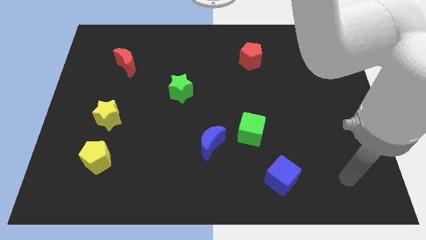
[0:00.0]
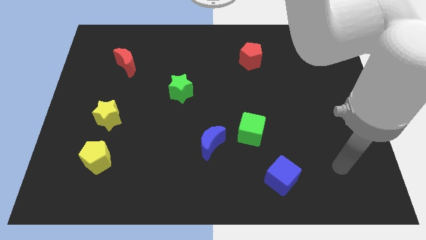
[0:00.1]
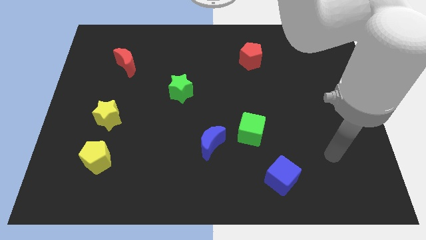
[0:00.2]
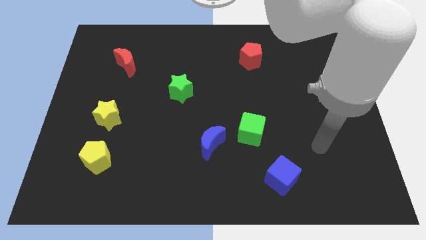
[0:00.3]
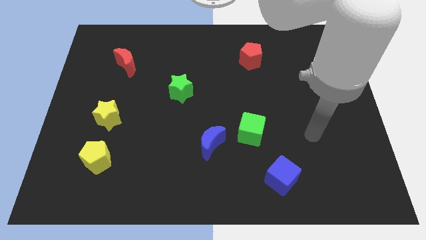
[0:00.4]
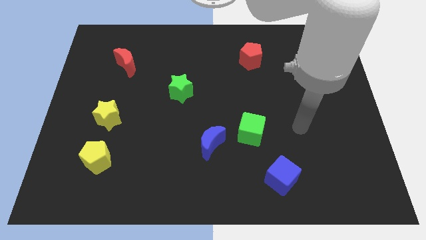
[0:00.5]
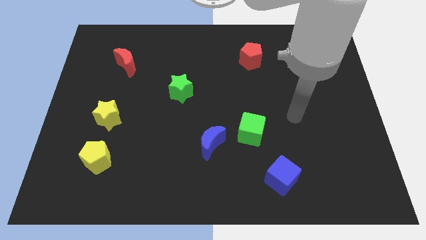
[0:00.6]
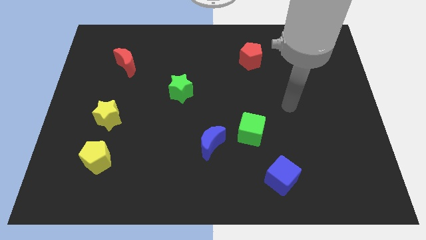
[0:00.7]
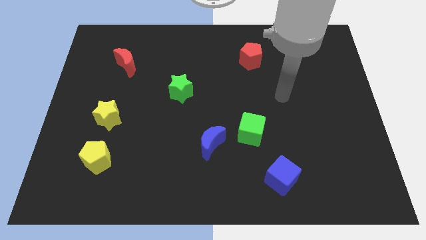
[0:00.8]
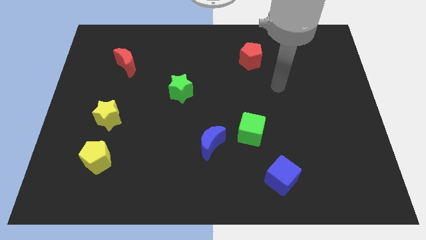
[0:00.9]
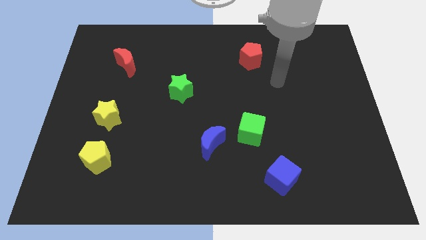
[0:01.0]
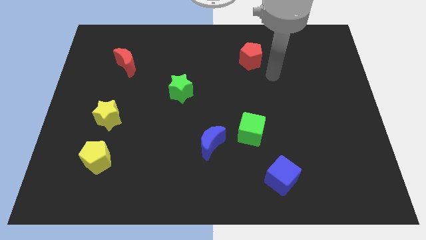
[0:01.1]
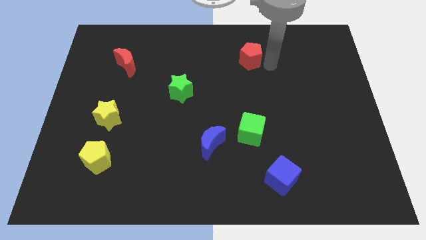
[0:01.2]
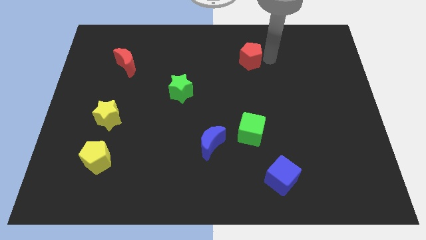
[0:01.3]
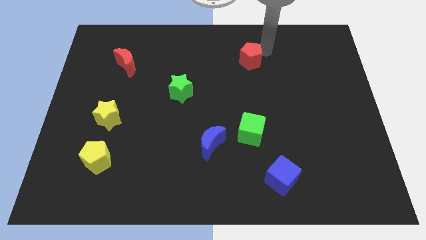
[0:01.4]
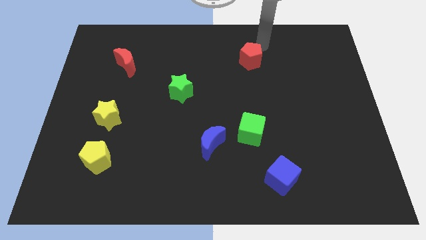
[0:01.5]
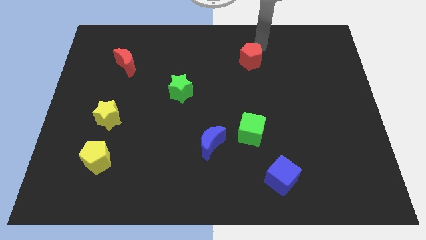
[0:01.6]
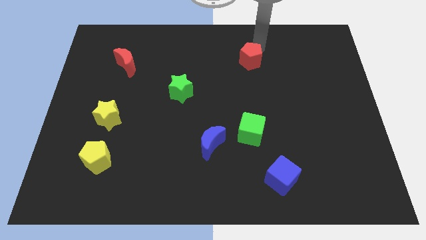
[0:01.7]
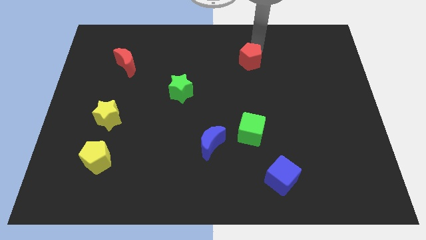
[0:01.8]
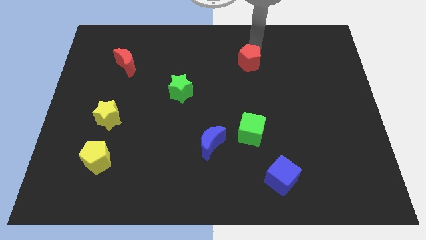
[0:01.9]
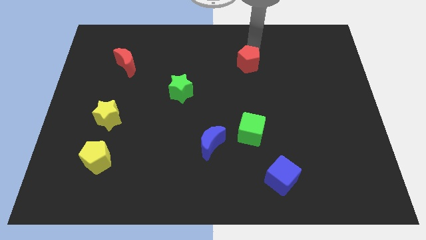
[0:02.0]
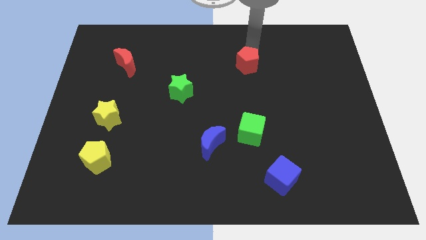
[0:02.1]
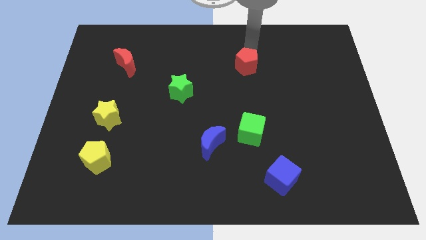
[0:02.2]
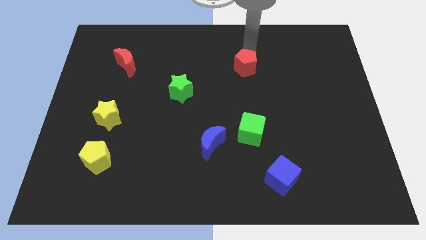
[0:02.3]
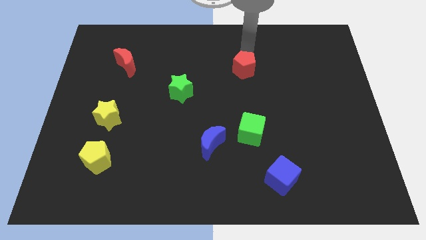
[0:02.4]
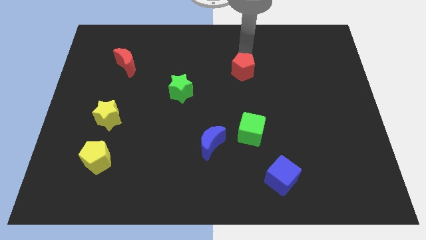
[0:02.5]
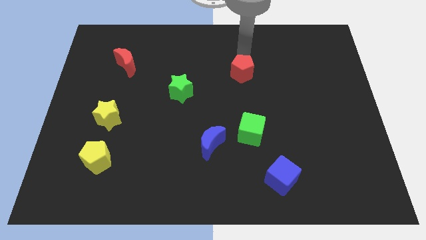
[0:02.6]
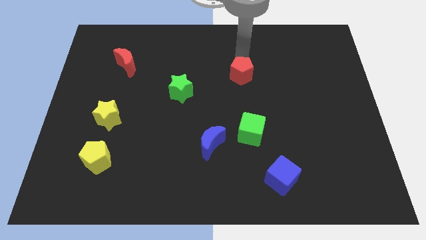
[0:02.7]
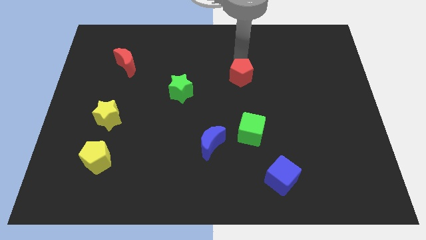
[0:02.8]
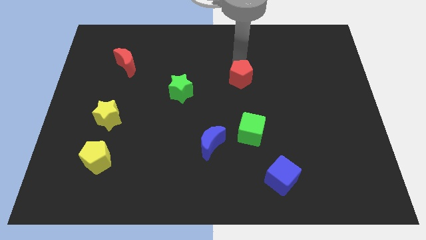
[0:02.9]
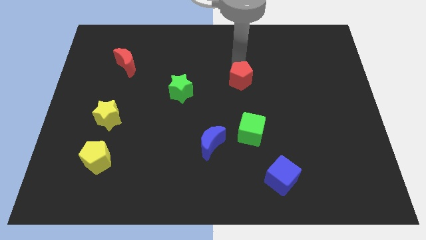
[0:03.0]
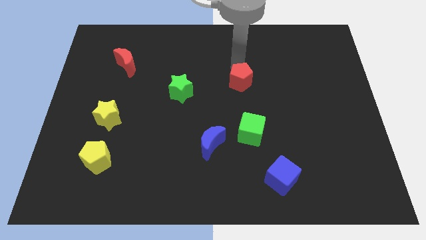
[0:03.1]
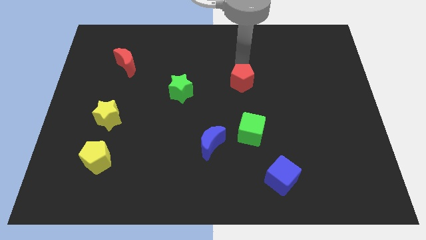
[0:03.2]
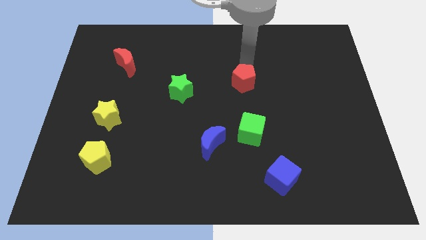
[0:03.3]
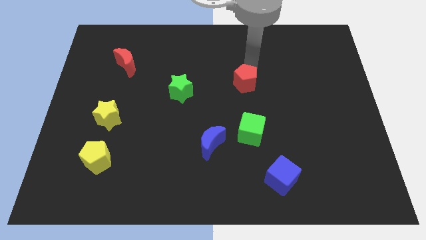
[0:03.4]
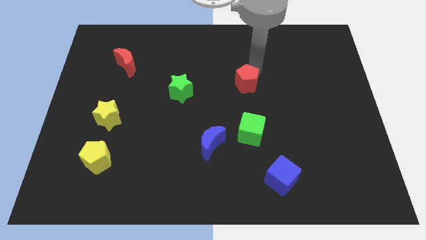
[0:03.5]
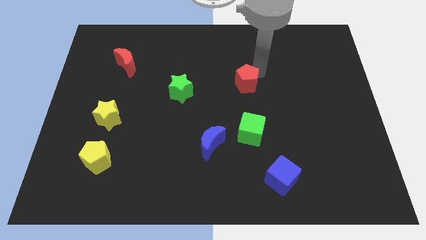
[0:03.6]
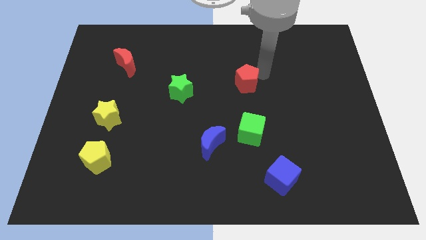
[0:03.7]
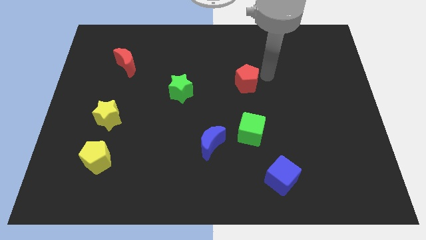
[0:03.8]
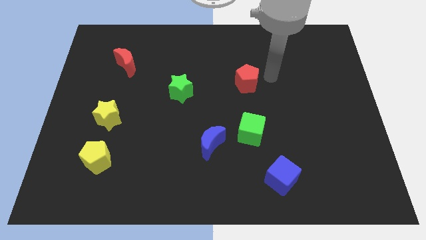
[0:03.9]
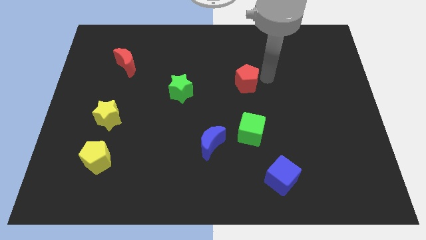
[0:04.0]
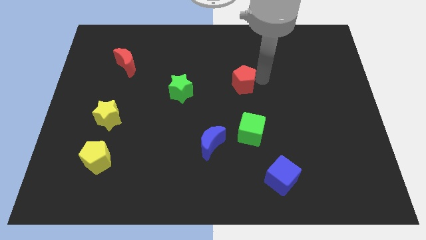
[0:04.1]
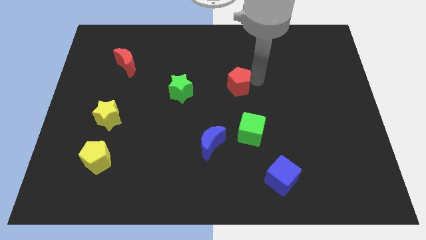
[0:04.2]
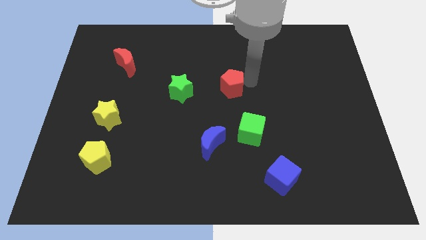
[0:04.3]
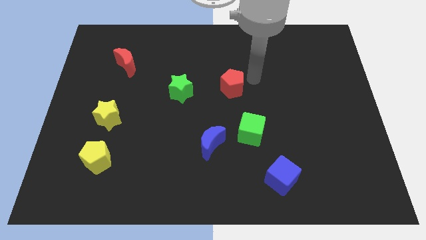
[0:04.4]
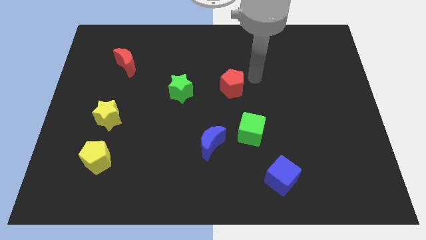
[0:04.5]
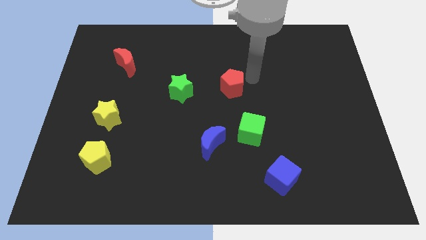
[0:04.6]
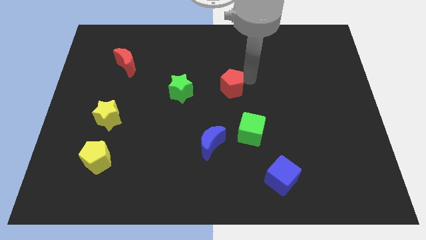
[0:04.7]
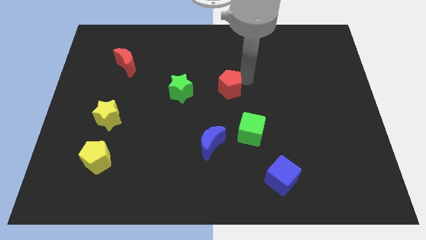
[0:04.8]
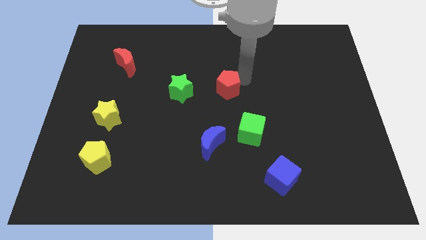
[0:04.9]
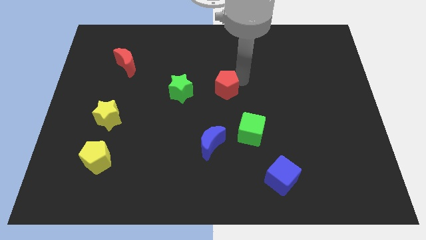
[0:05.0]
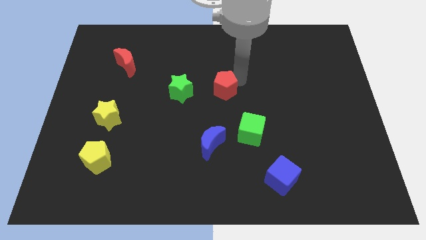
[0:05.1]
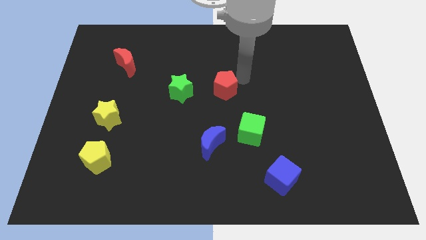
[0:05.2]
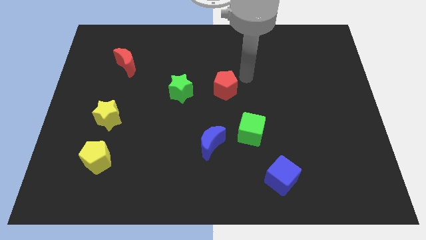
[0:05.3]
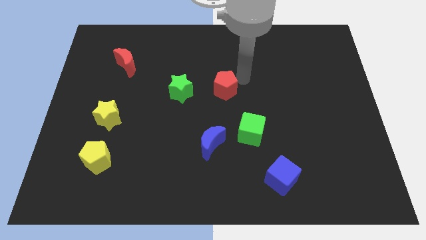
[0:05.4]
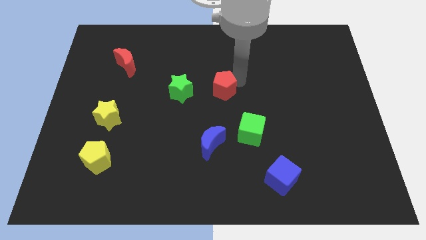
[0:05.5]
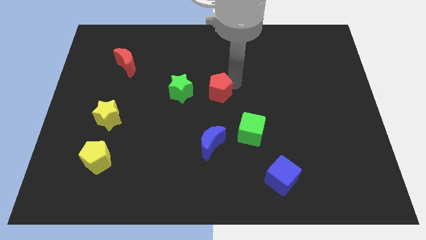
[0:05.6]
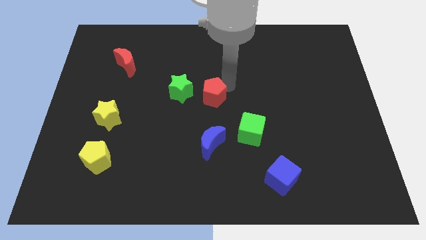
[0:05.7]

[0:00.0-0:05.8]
move the red pentagon to the bottom right of the green star

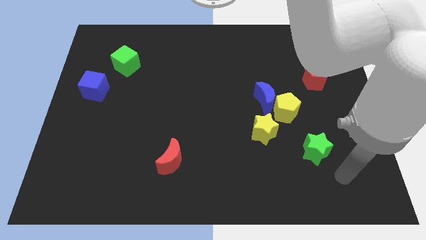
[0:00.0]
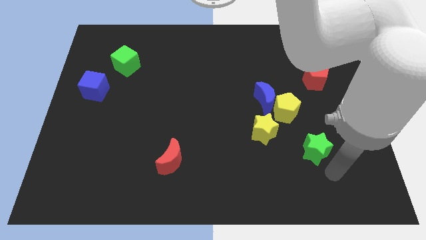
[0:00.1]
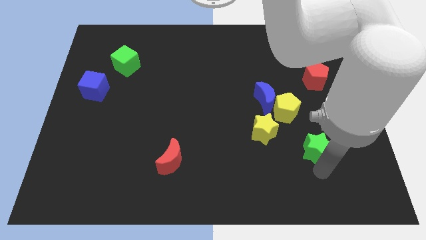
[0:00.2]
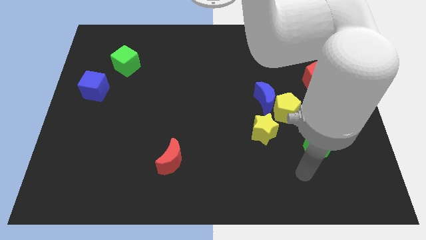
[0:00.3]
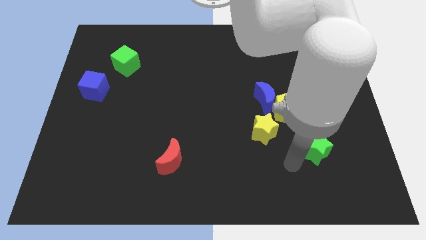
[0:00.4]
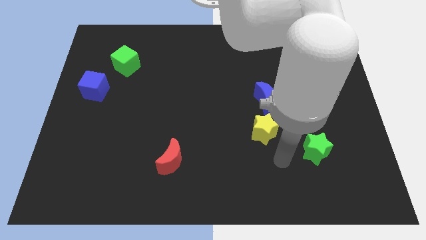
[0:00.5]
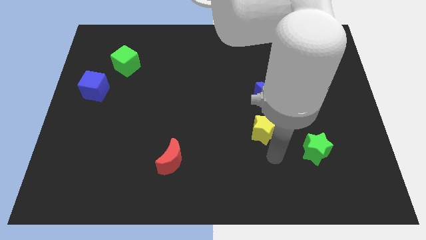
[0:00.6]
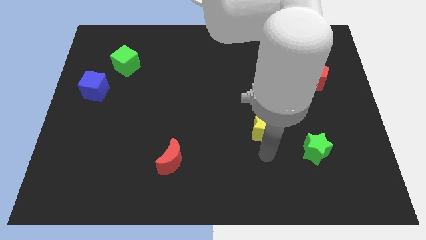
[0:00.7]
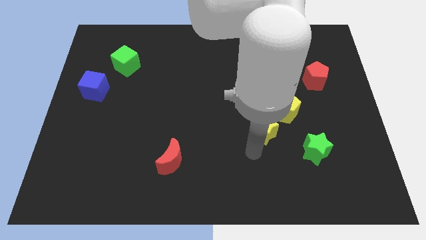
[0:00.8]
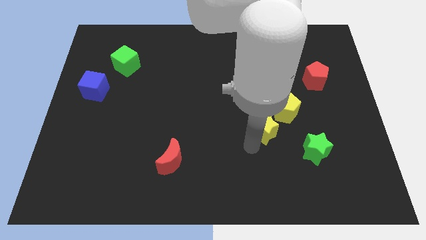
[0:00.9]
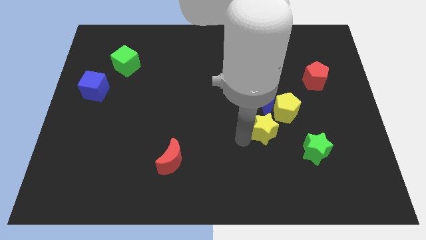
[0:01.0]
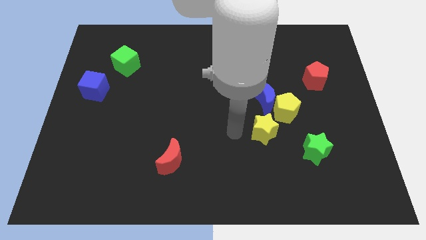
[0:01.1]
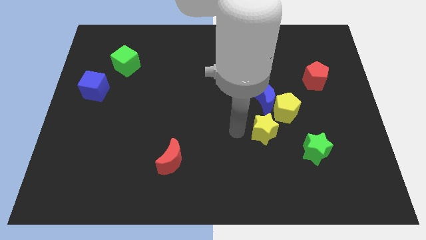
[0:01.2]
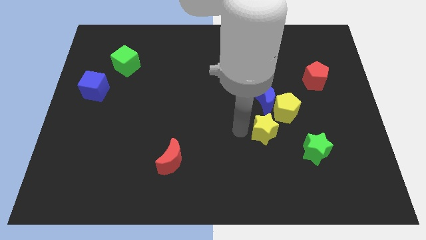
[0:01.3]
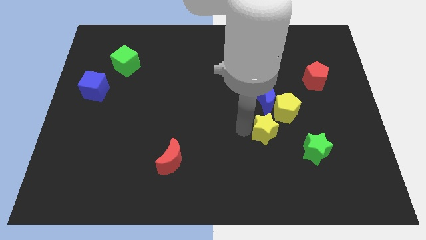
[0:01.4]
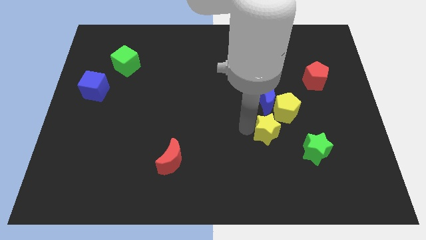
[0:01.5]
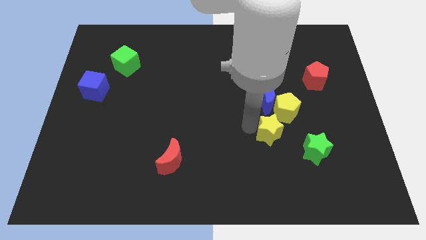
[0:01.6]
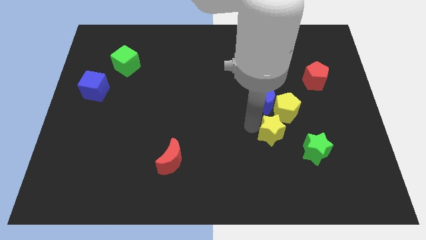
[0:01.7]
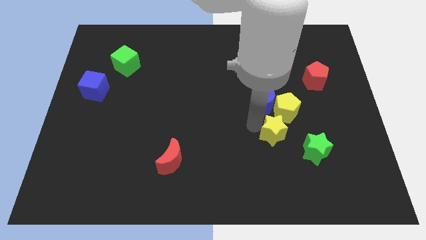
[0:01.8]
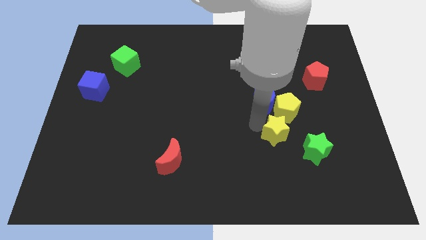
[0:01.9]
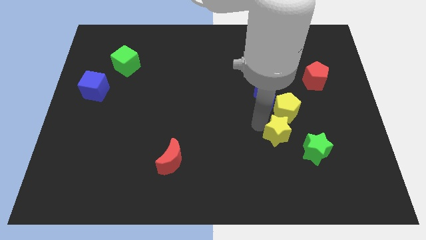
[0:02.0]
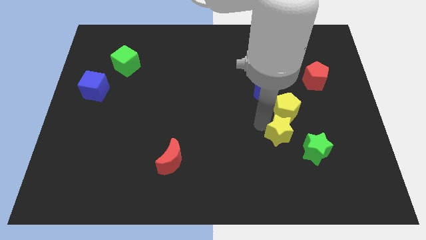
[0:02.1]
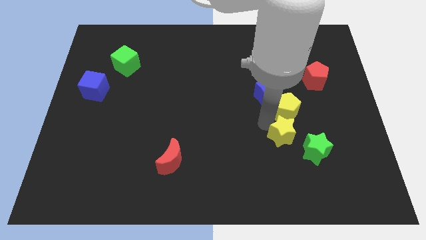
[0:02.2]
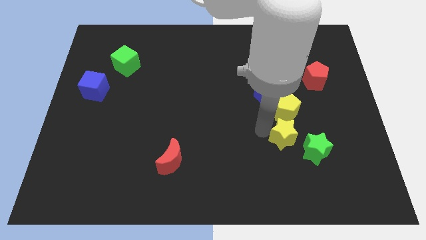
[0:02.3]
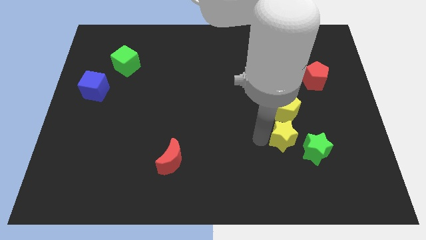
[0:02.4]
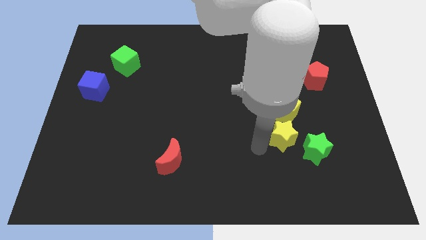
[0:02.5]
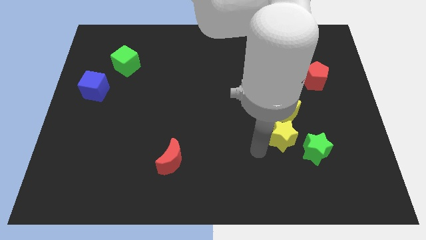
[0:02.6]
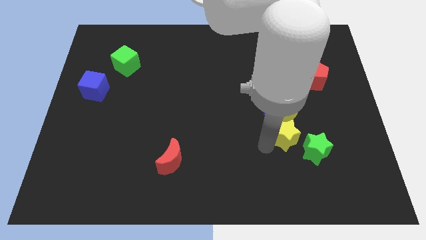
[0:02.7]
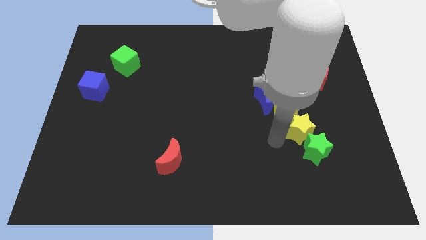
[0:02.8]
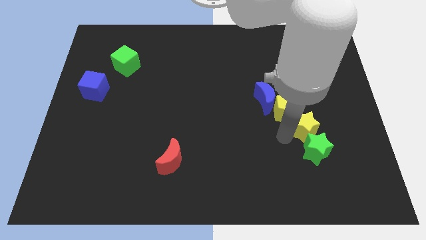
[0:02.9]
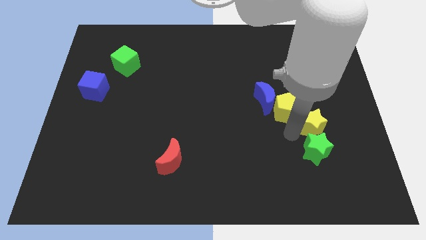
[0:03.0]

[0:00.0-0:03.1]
slide the yellow star to the bottom side of the red pentagon
